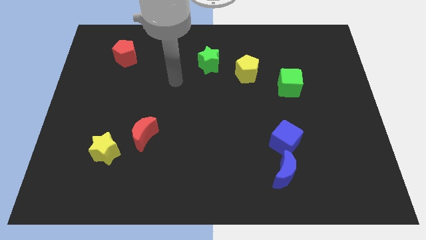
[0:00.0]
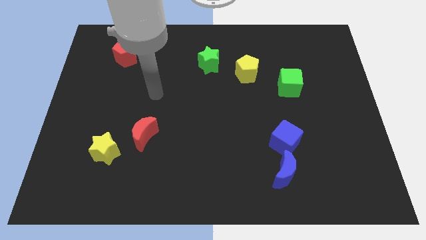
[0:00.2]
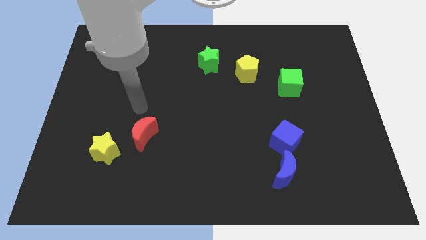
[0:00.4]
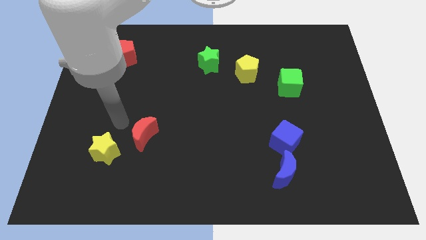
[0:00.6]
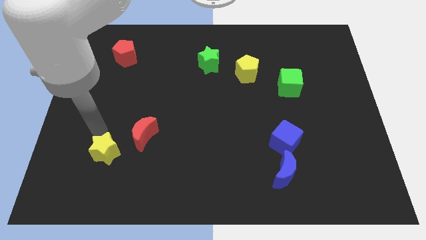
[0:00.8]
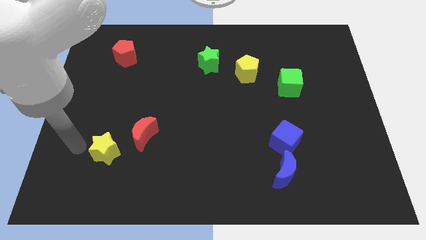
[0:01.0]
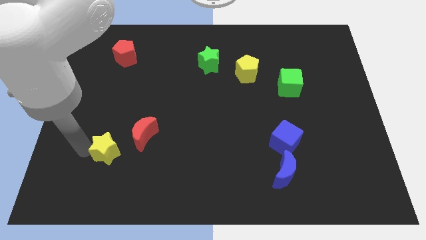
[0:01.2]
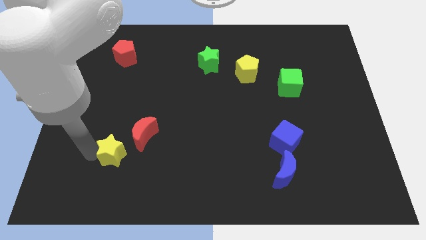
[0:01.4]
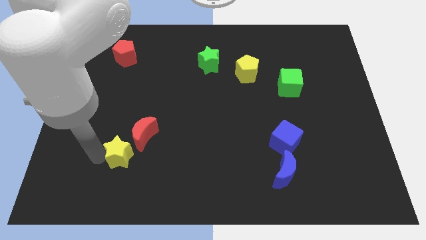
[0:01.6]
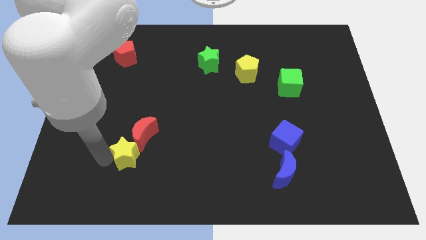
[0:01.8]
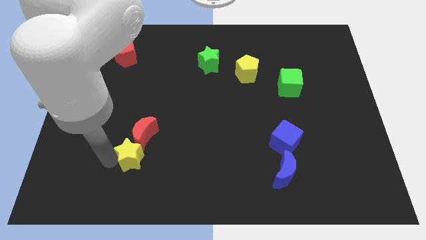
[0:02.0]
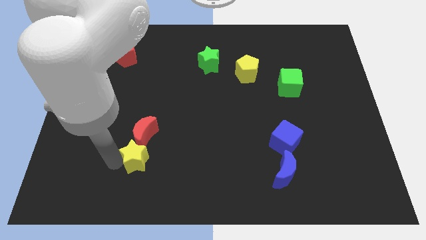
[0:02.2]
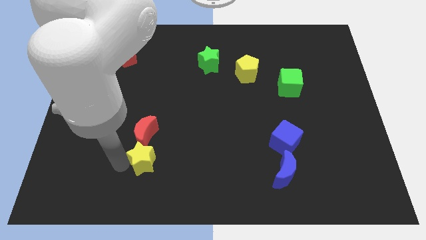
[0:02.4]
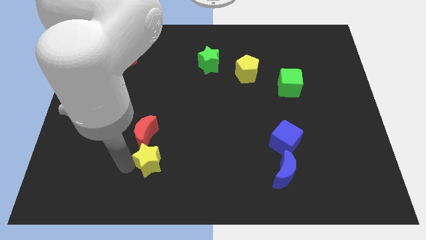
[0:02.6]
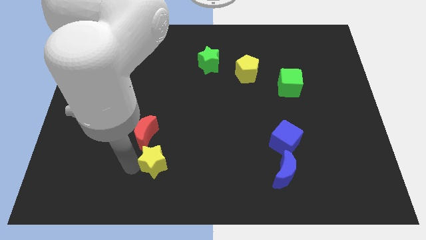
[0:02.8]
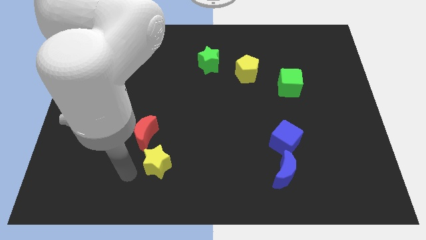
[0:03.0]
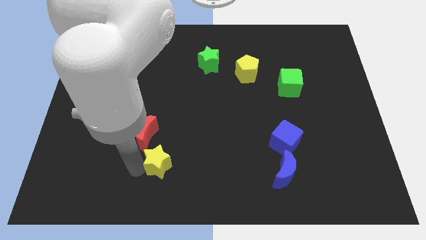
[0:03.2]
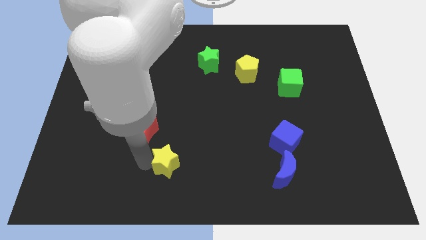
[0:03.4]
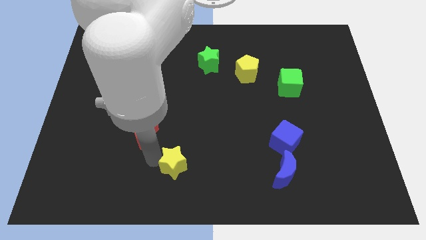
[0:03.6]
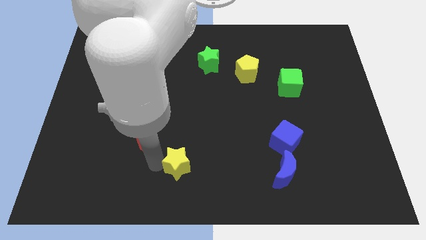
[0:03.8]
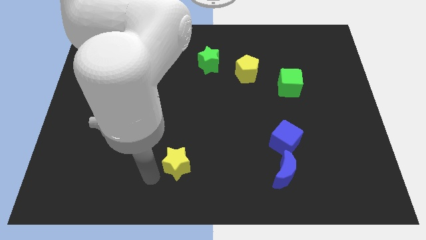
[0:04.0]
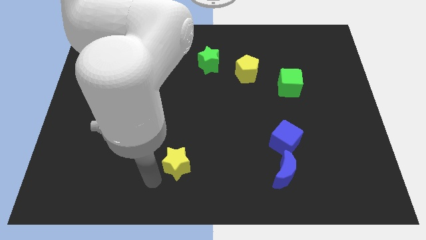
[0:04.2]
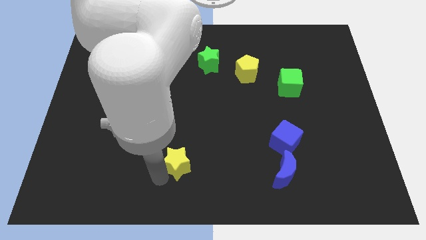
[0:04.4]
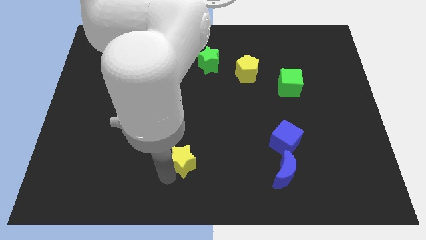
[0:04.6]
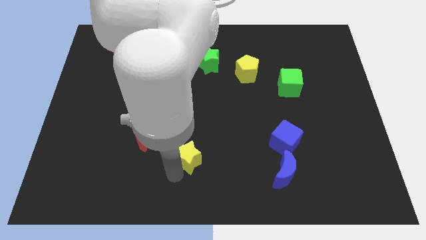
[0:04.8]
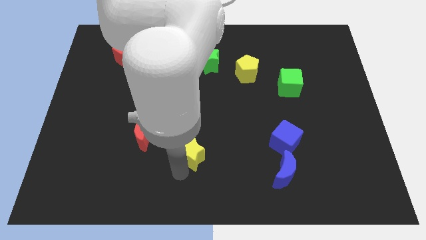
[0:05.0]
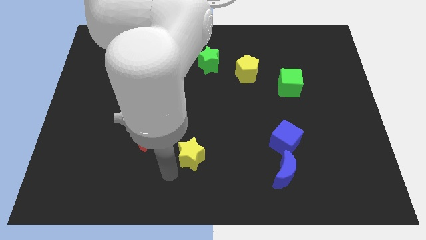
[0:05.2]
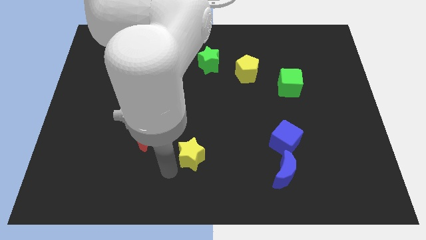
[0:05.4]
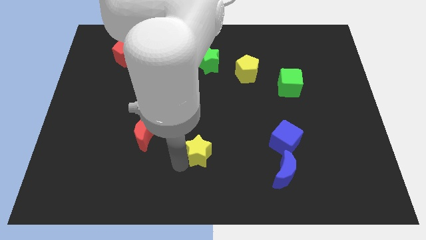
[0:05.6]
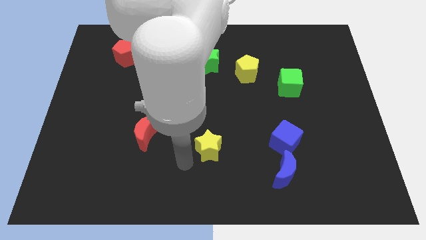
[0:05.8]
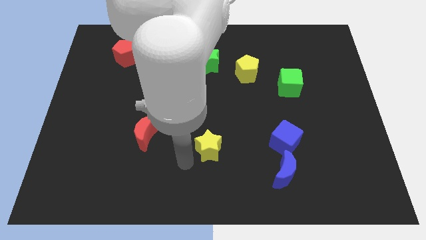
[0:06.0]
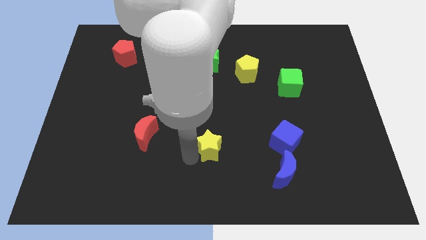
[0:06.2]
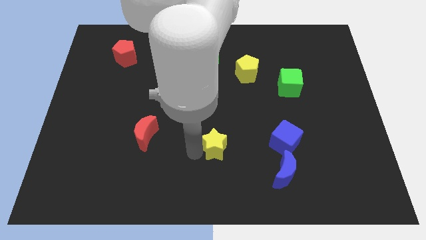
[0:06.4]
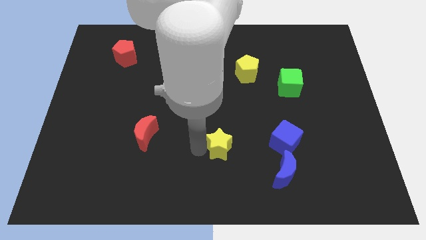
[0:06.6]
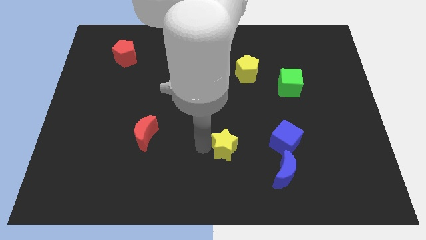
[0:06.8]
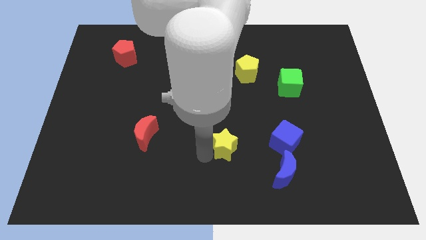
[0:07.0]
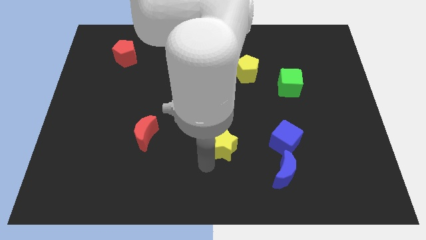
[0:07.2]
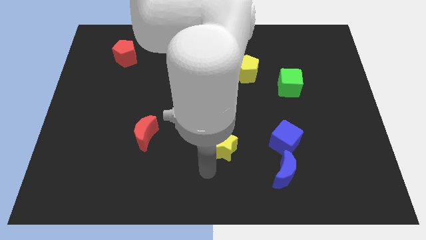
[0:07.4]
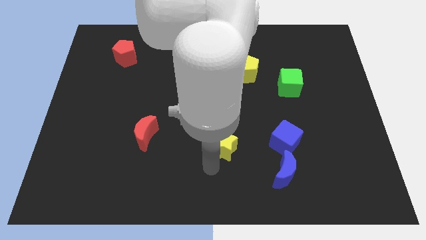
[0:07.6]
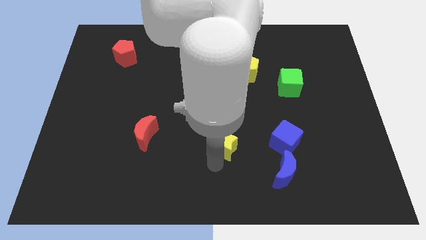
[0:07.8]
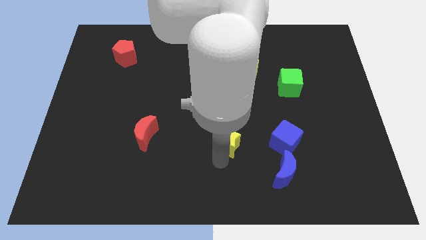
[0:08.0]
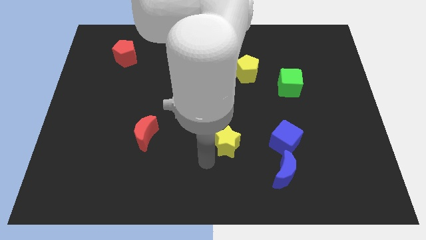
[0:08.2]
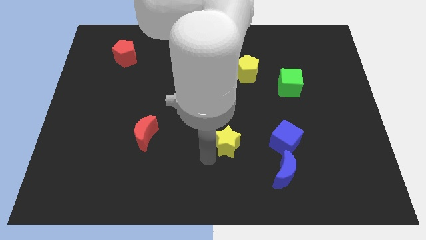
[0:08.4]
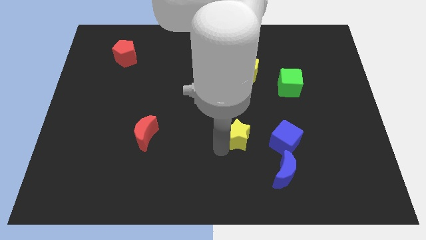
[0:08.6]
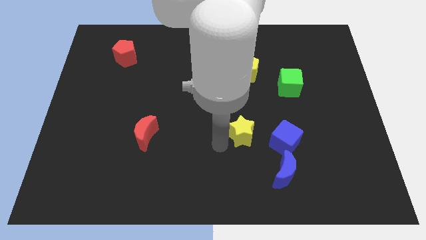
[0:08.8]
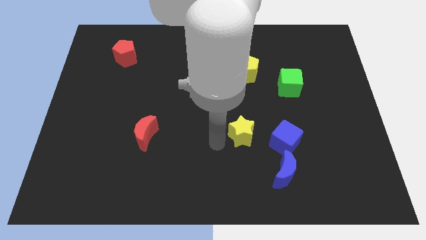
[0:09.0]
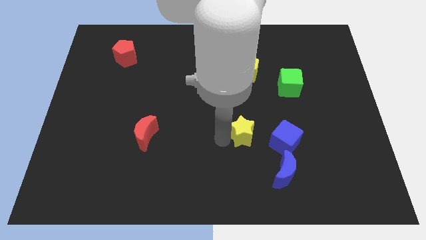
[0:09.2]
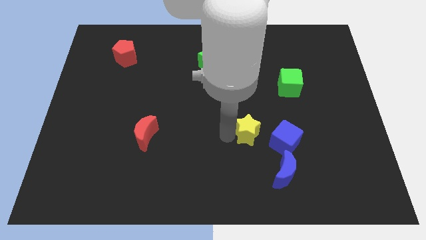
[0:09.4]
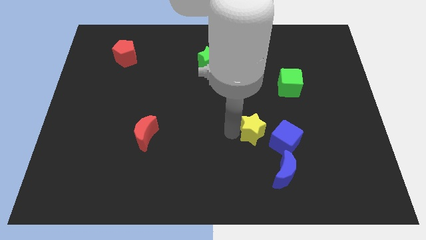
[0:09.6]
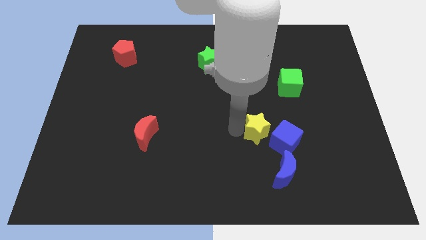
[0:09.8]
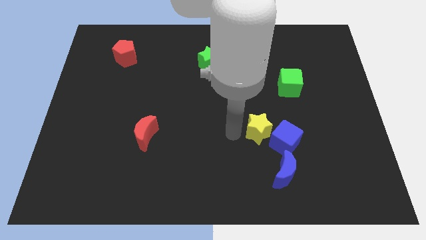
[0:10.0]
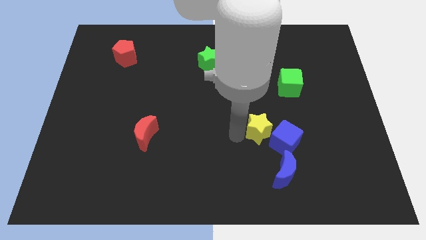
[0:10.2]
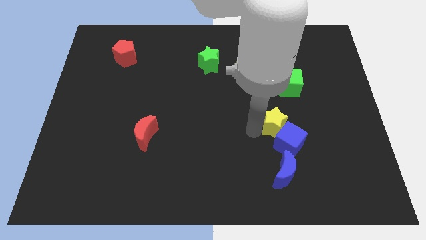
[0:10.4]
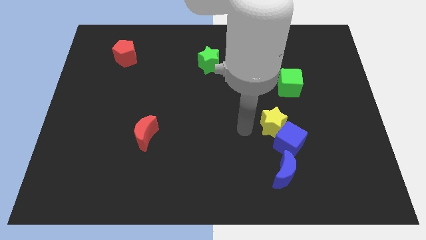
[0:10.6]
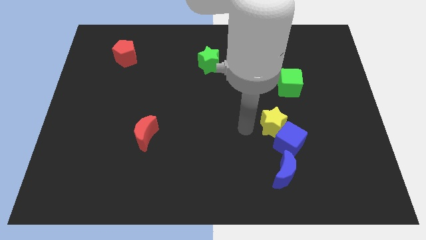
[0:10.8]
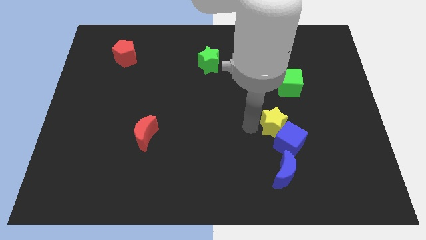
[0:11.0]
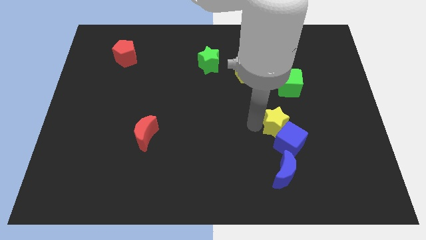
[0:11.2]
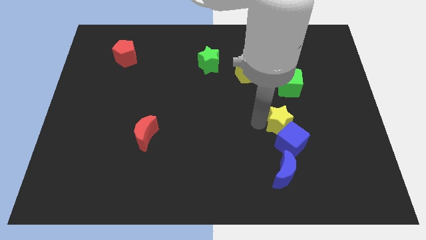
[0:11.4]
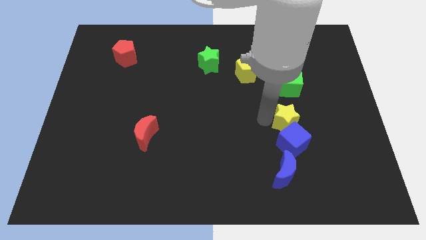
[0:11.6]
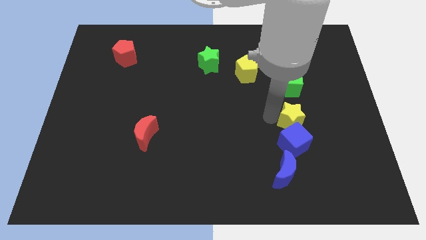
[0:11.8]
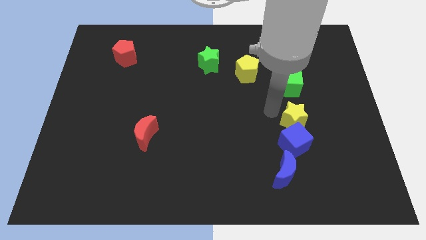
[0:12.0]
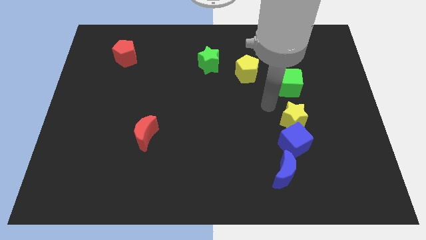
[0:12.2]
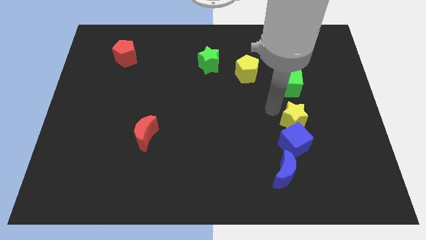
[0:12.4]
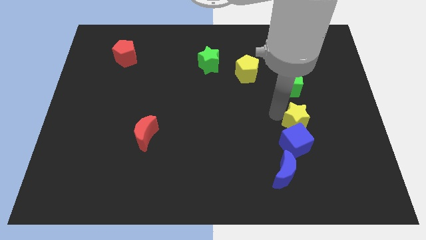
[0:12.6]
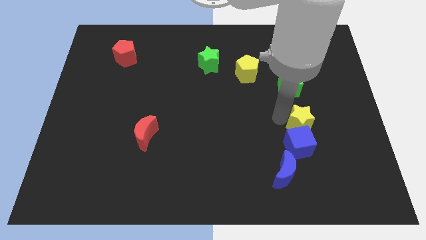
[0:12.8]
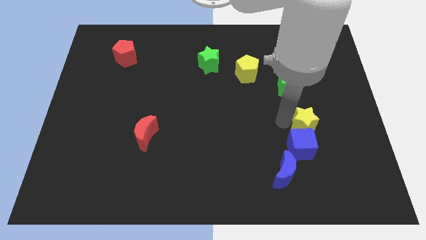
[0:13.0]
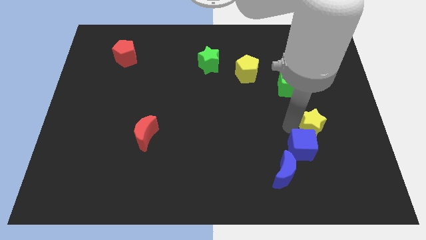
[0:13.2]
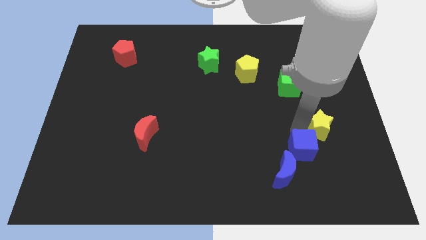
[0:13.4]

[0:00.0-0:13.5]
push the yellow star to the right of the blue cube
